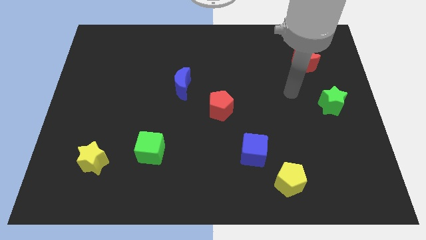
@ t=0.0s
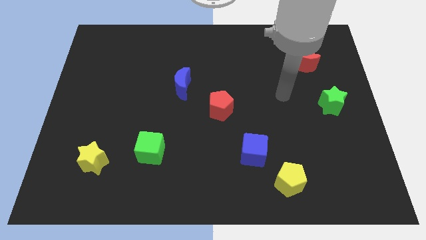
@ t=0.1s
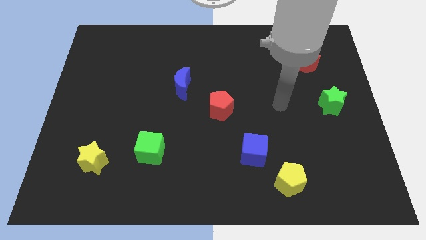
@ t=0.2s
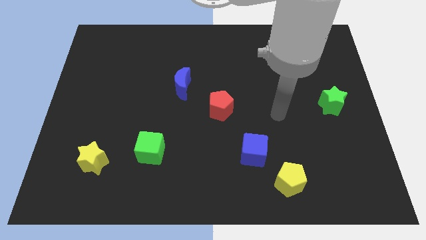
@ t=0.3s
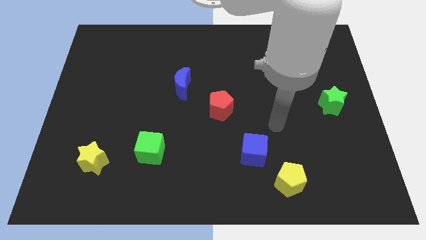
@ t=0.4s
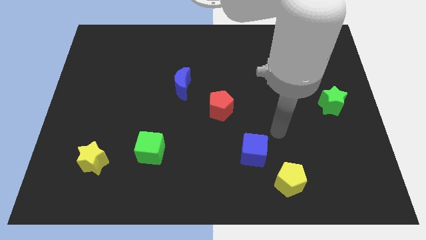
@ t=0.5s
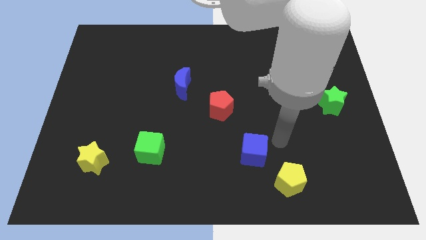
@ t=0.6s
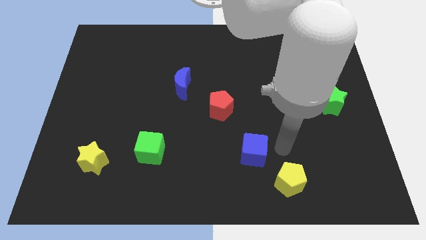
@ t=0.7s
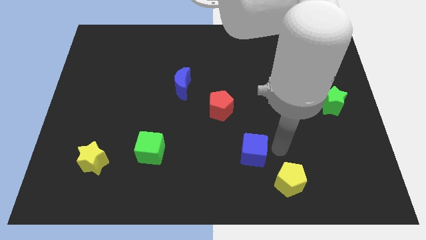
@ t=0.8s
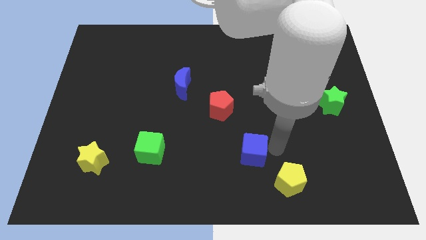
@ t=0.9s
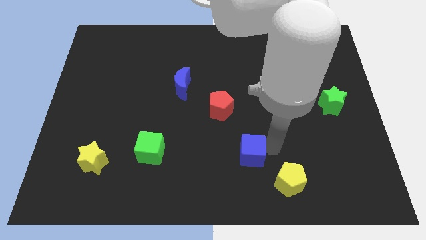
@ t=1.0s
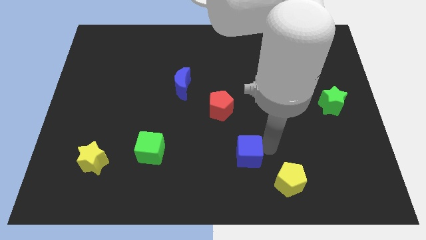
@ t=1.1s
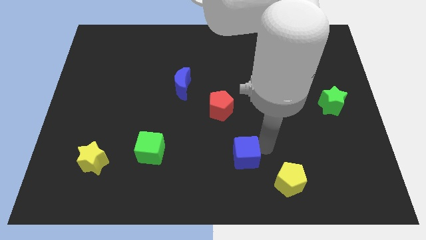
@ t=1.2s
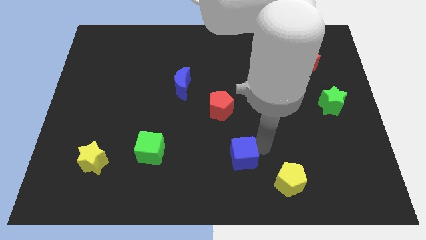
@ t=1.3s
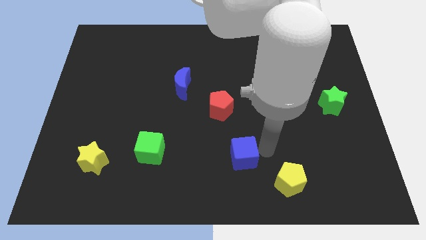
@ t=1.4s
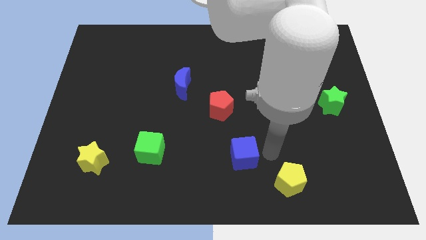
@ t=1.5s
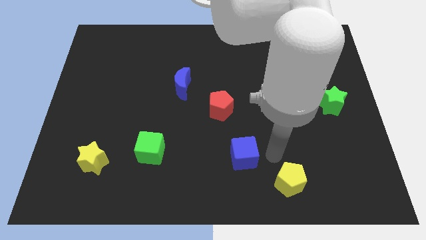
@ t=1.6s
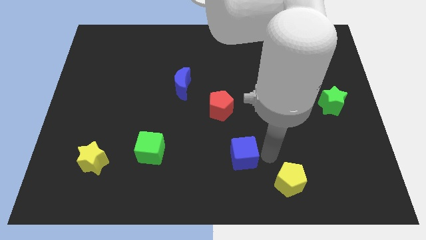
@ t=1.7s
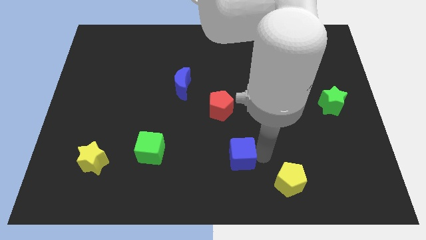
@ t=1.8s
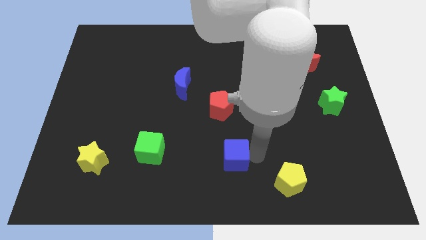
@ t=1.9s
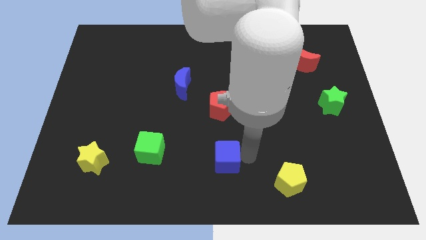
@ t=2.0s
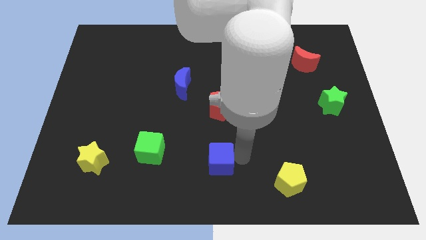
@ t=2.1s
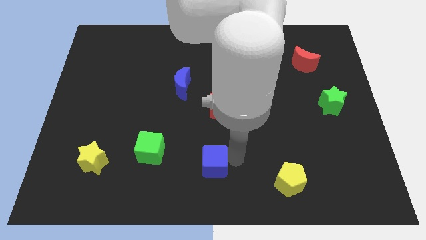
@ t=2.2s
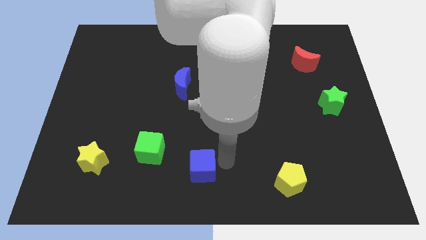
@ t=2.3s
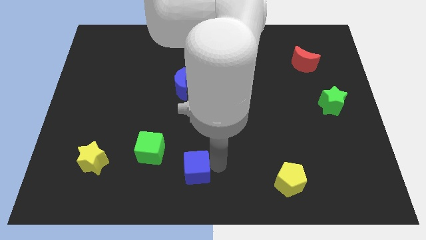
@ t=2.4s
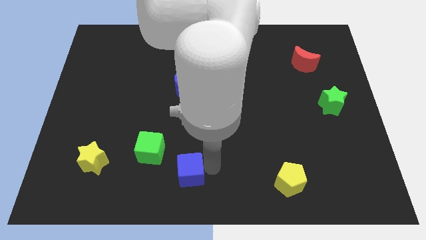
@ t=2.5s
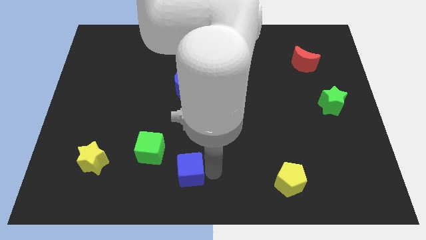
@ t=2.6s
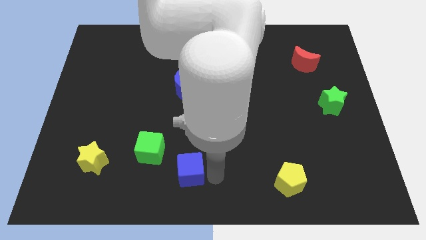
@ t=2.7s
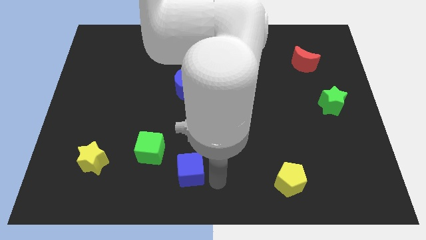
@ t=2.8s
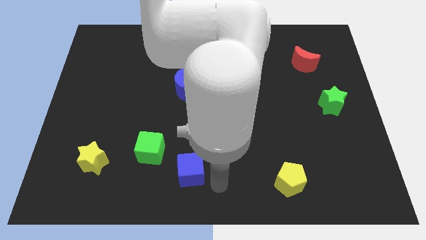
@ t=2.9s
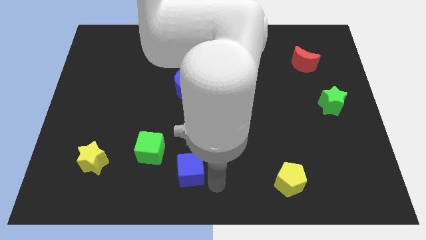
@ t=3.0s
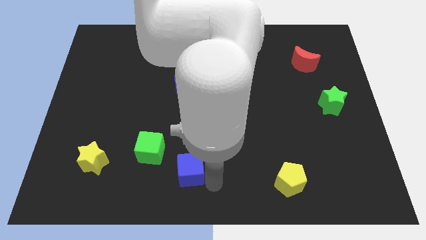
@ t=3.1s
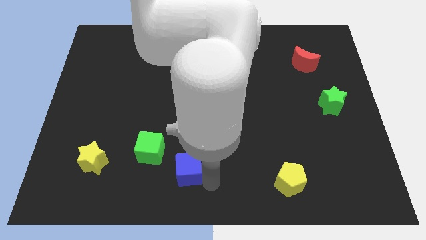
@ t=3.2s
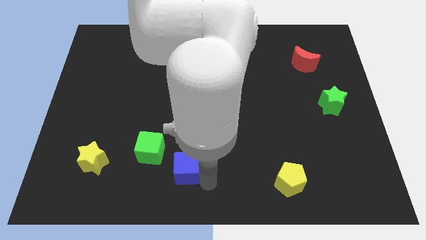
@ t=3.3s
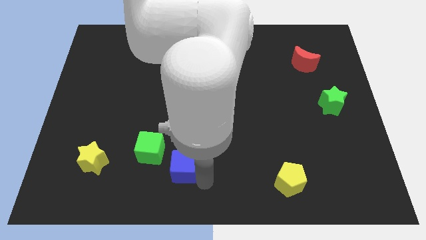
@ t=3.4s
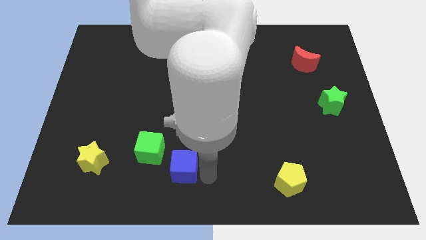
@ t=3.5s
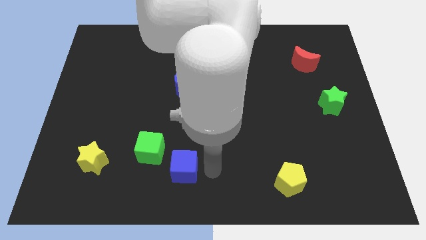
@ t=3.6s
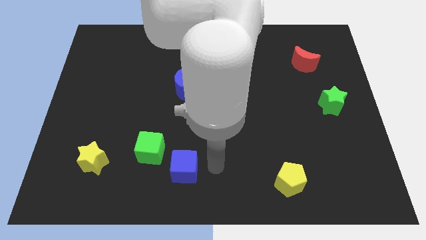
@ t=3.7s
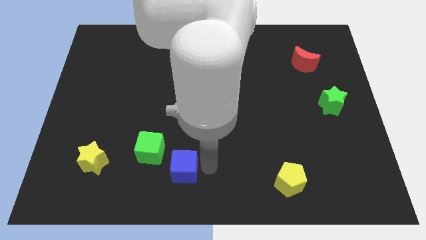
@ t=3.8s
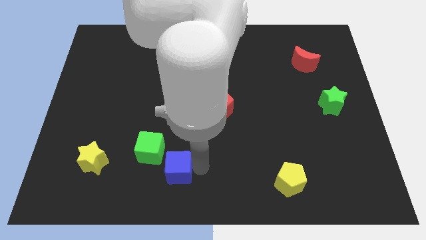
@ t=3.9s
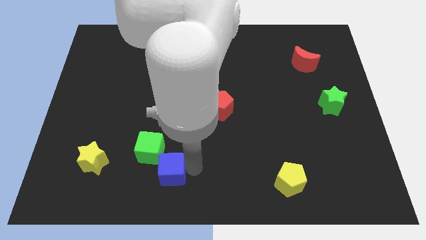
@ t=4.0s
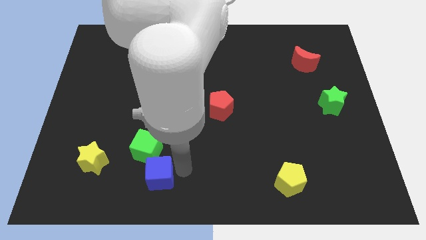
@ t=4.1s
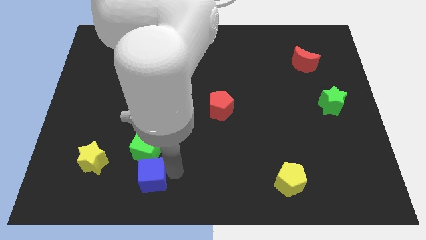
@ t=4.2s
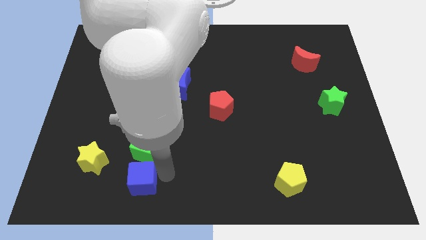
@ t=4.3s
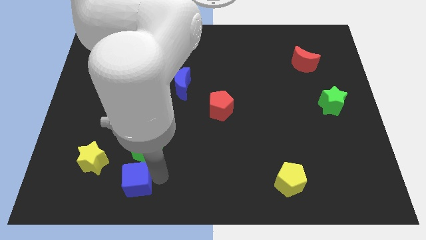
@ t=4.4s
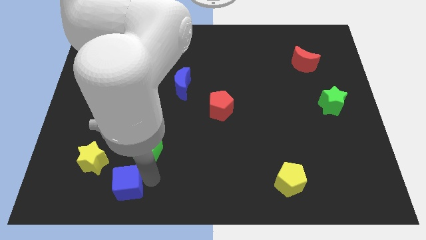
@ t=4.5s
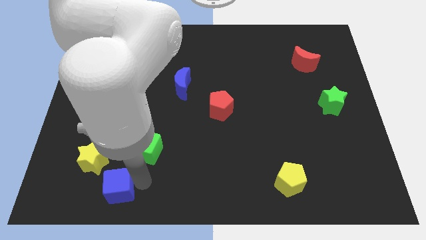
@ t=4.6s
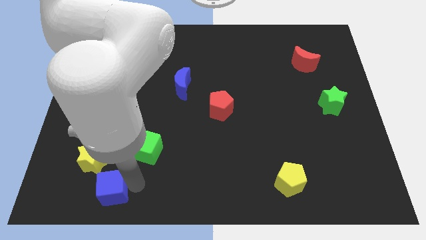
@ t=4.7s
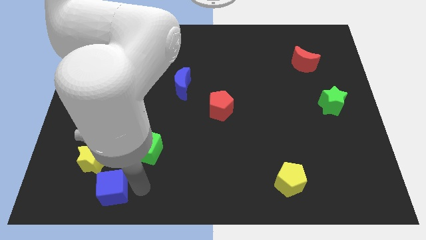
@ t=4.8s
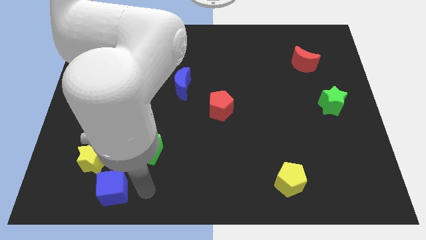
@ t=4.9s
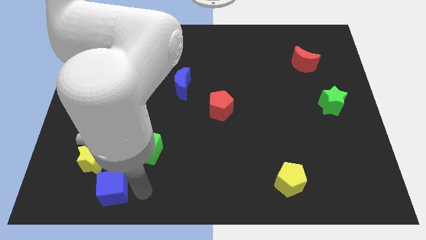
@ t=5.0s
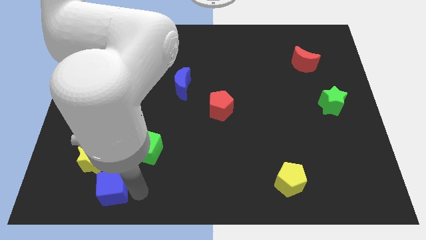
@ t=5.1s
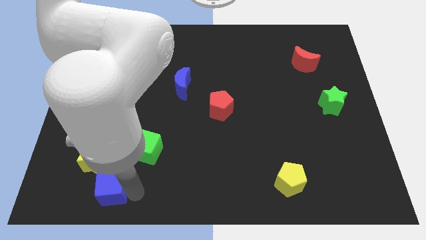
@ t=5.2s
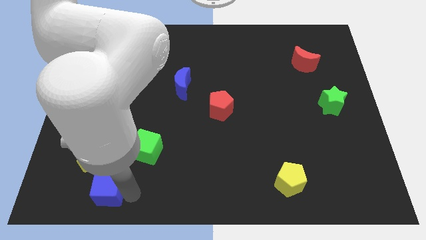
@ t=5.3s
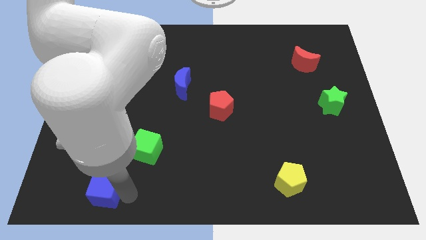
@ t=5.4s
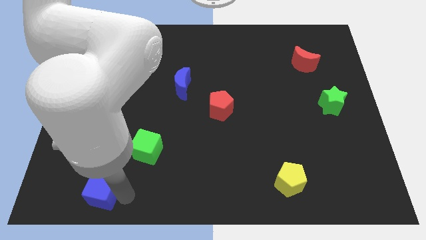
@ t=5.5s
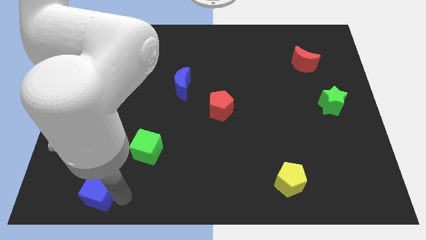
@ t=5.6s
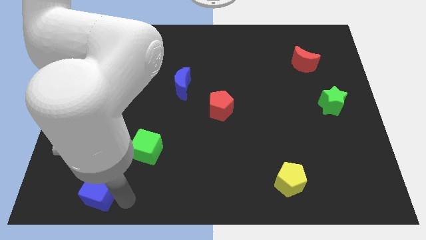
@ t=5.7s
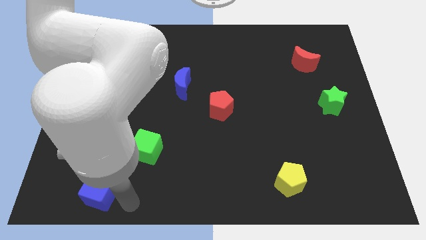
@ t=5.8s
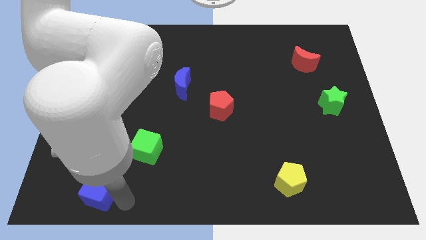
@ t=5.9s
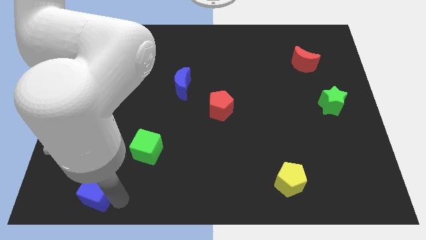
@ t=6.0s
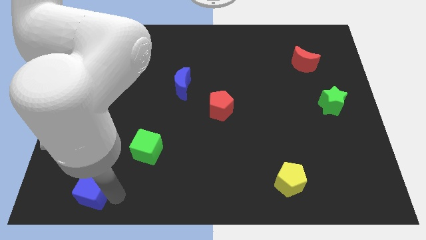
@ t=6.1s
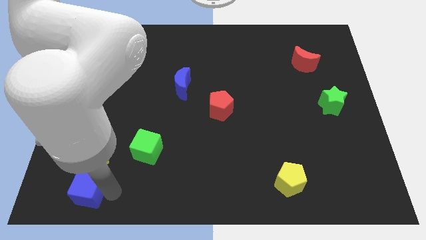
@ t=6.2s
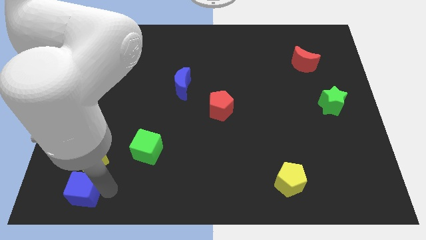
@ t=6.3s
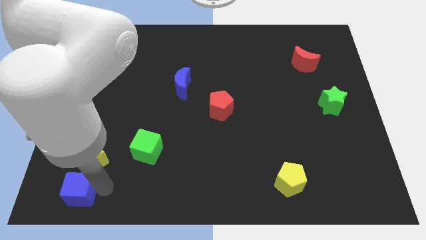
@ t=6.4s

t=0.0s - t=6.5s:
move the blue cube to the lower left corner
